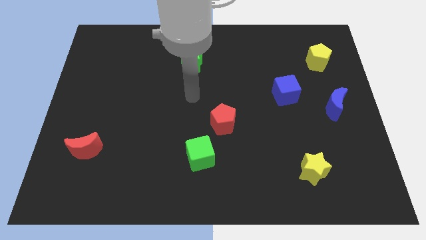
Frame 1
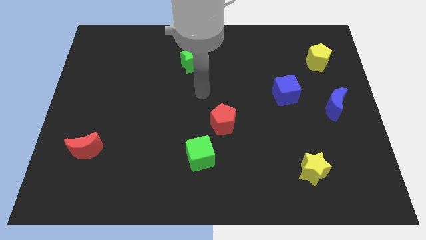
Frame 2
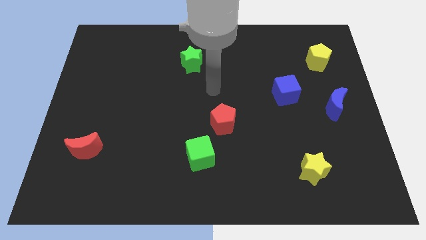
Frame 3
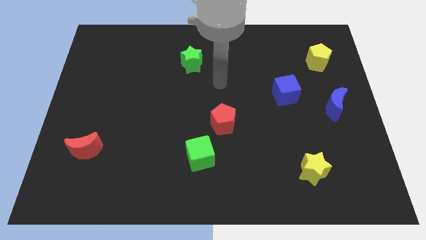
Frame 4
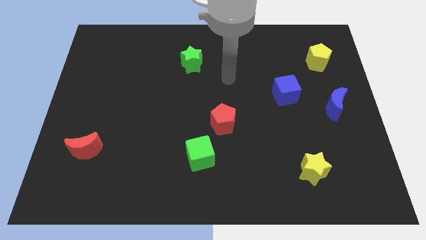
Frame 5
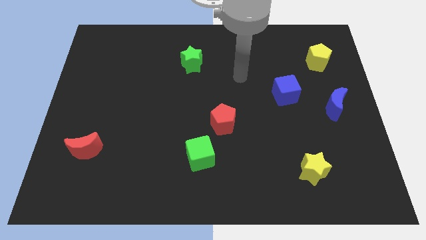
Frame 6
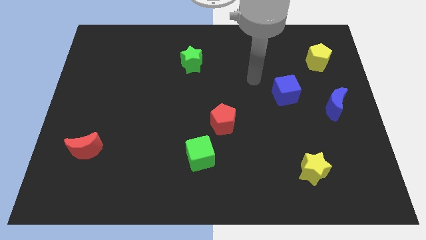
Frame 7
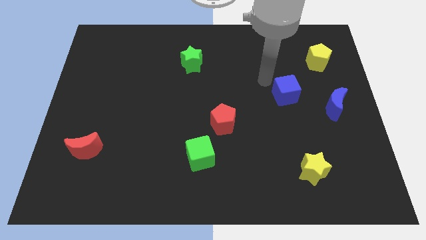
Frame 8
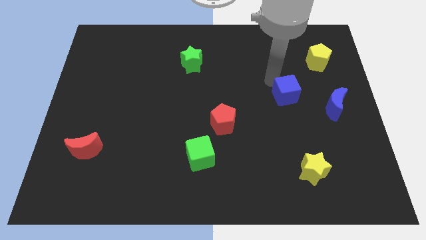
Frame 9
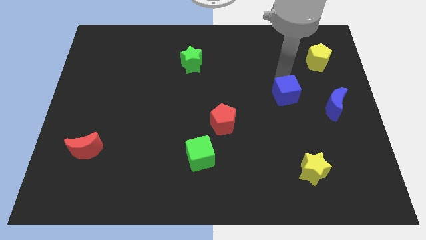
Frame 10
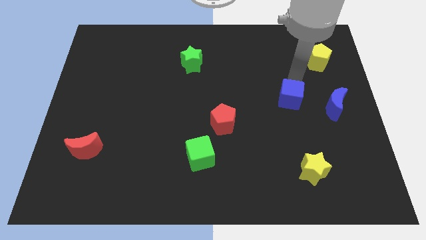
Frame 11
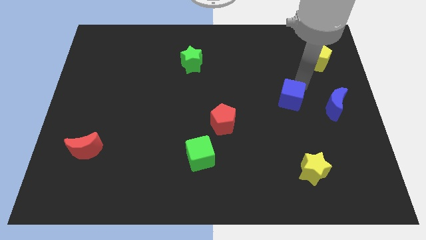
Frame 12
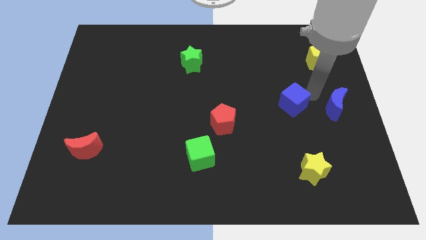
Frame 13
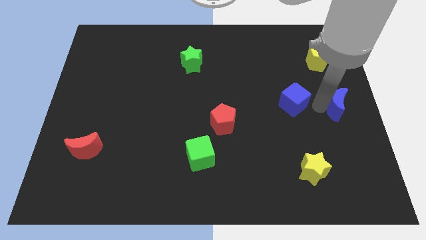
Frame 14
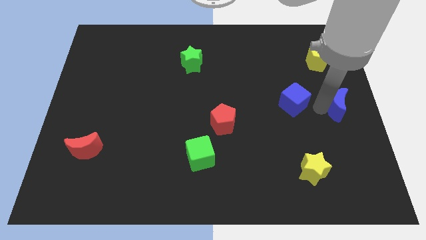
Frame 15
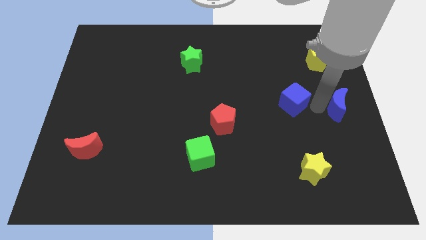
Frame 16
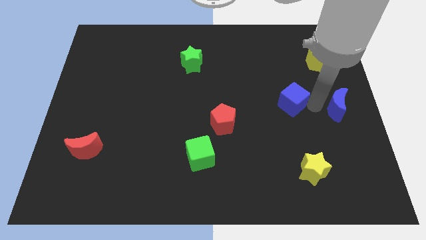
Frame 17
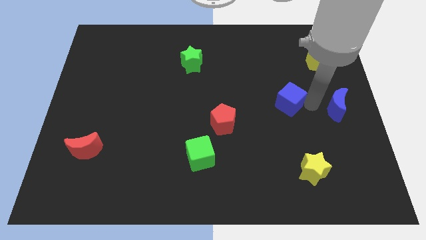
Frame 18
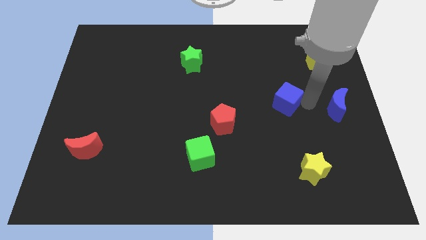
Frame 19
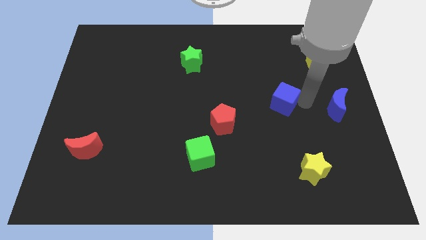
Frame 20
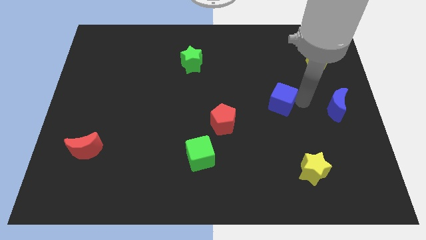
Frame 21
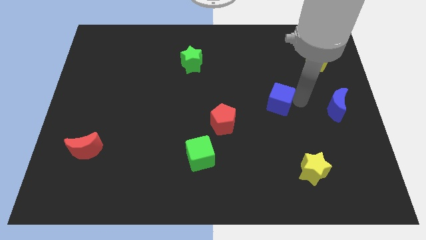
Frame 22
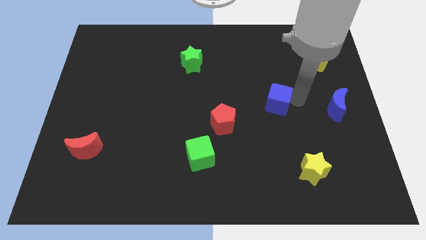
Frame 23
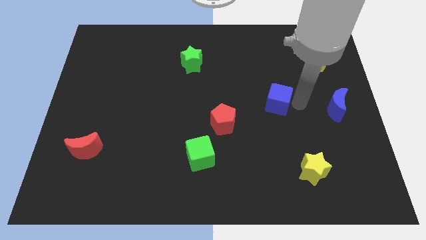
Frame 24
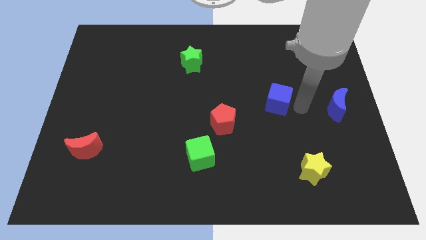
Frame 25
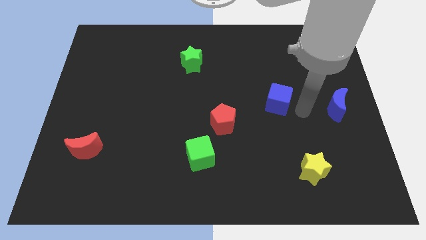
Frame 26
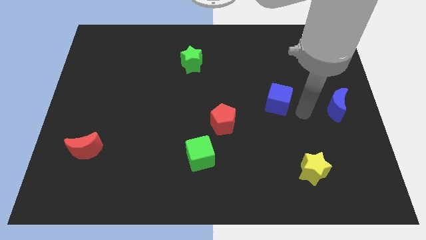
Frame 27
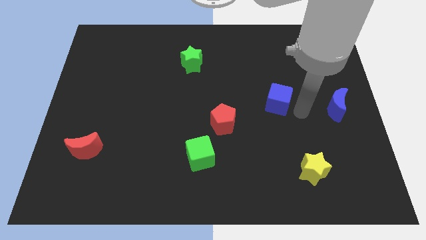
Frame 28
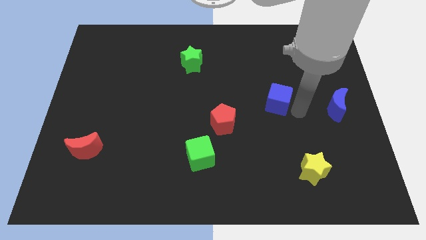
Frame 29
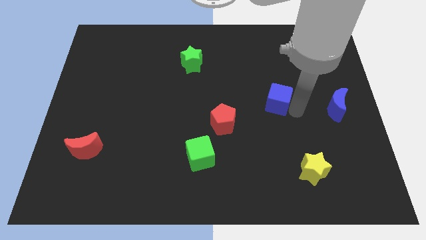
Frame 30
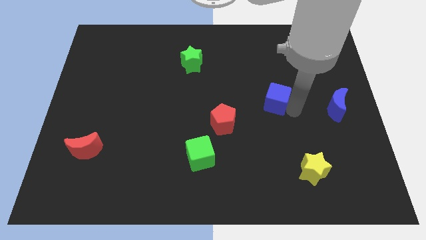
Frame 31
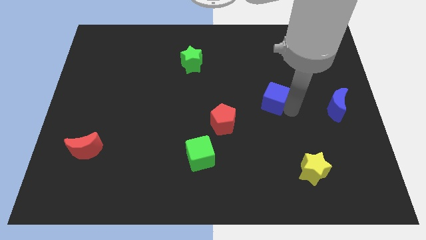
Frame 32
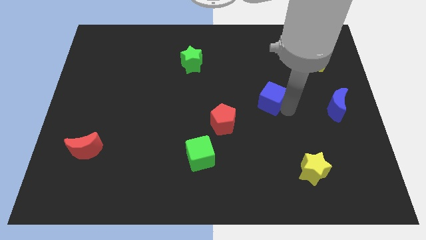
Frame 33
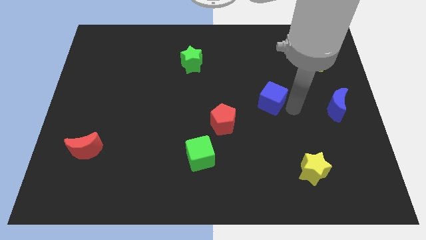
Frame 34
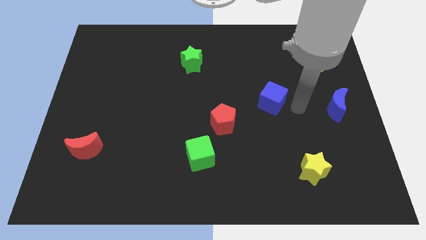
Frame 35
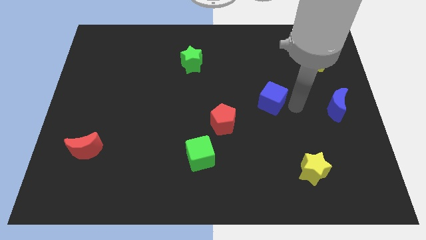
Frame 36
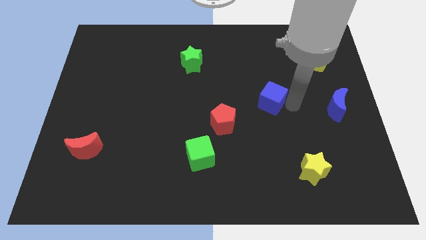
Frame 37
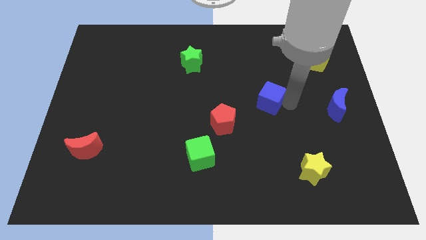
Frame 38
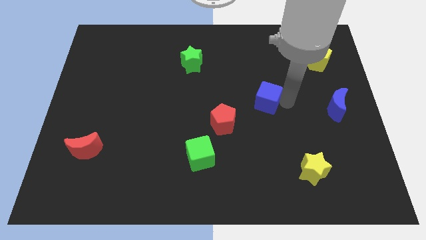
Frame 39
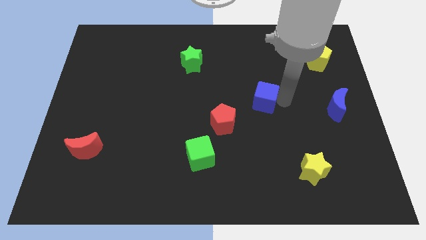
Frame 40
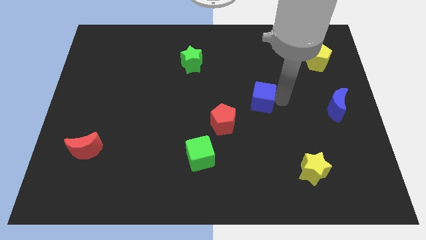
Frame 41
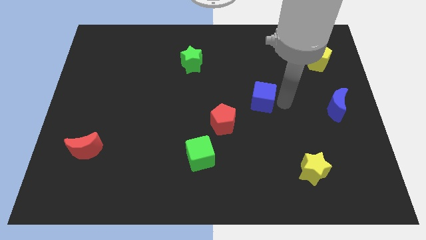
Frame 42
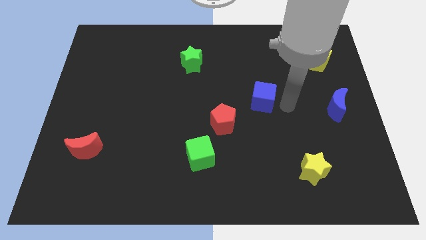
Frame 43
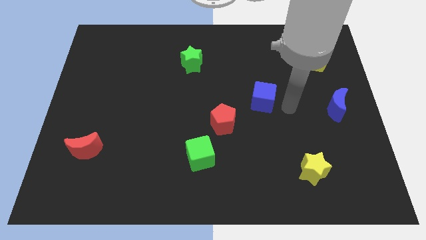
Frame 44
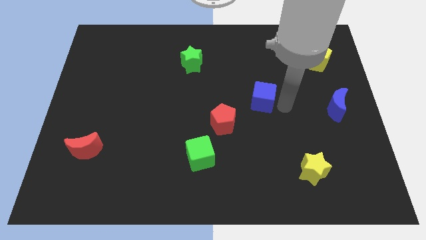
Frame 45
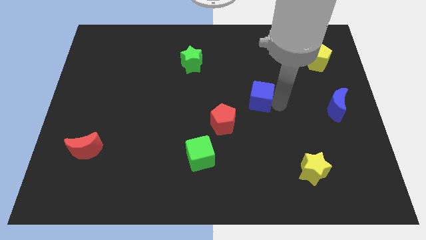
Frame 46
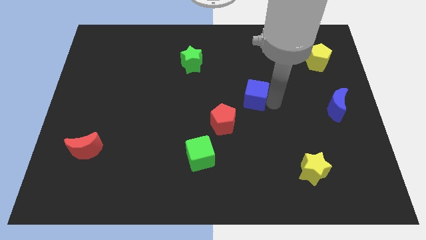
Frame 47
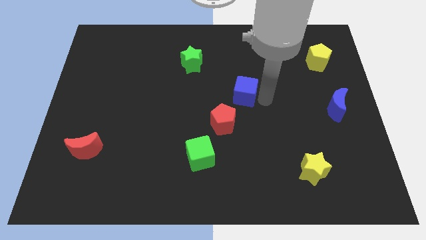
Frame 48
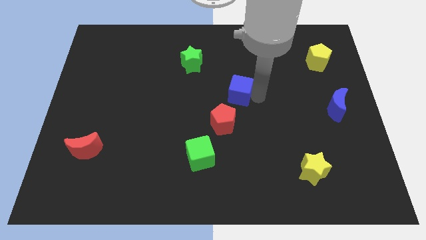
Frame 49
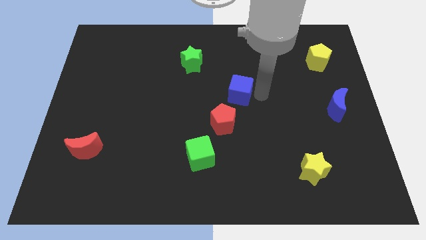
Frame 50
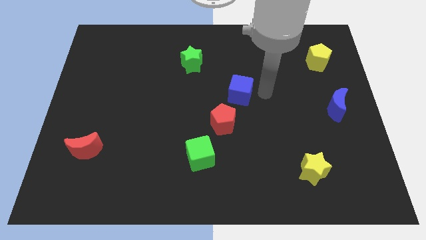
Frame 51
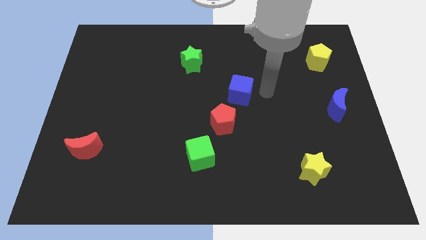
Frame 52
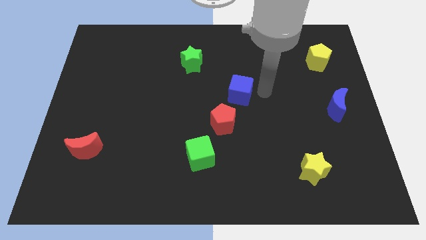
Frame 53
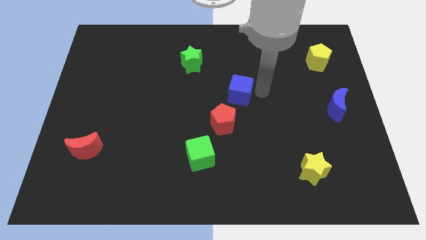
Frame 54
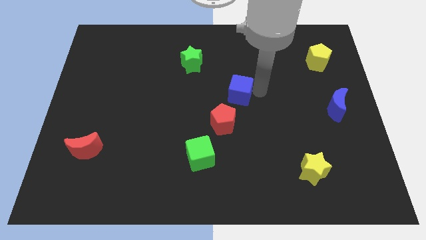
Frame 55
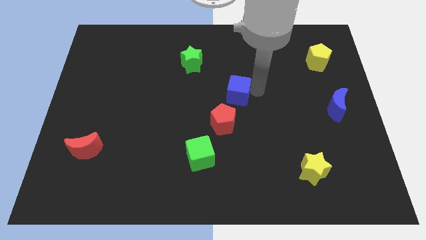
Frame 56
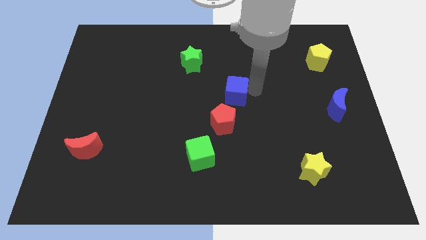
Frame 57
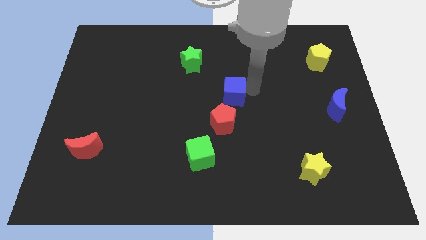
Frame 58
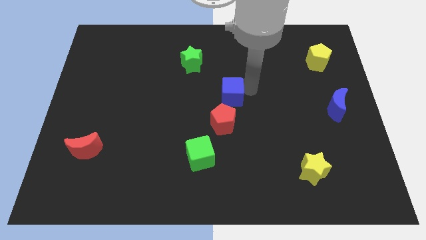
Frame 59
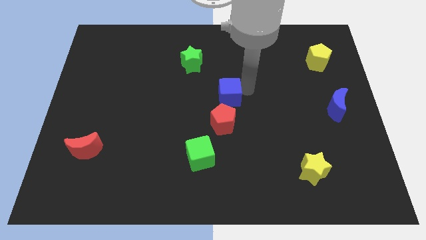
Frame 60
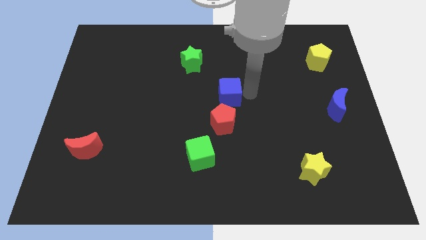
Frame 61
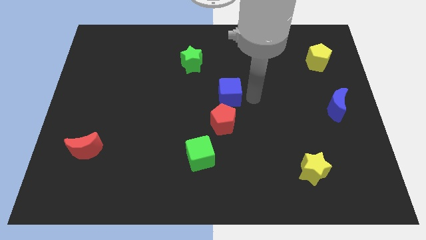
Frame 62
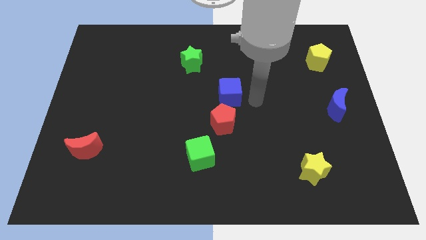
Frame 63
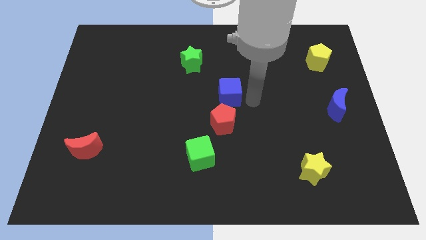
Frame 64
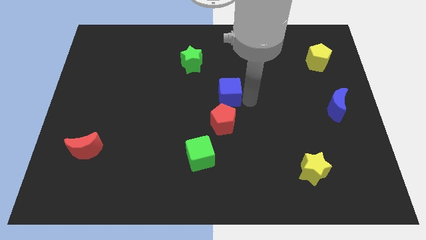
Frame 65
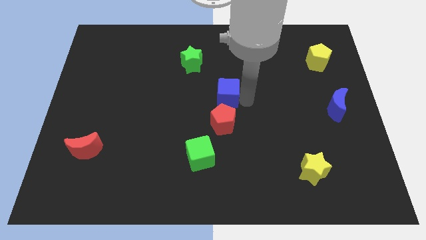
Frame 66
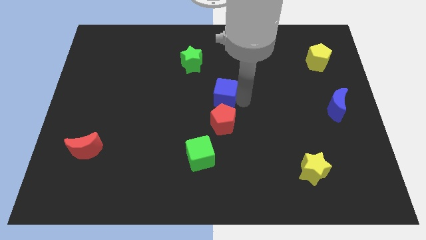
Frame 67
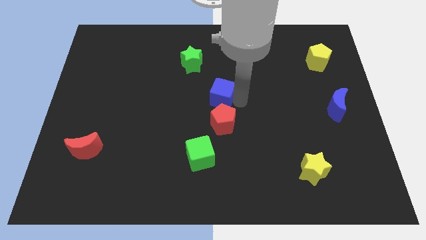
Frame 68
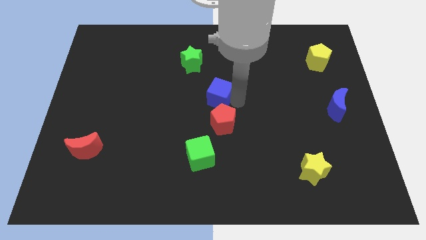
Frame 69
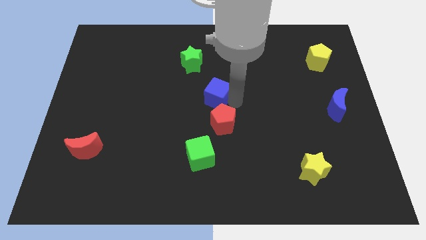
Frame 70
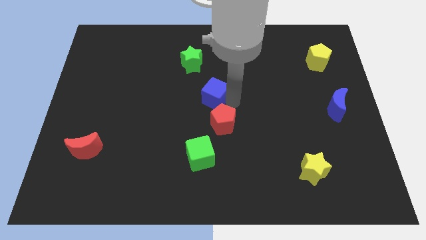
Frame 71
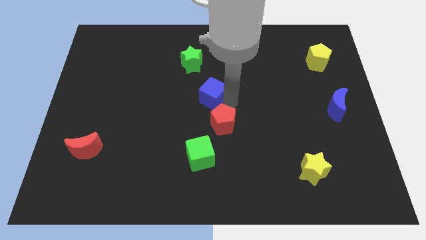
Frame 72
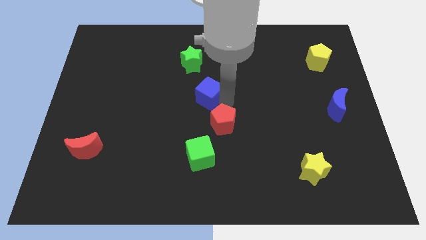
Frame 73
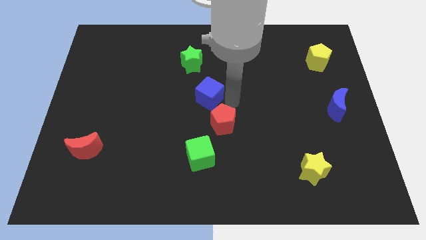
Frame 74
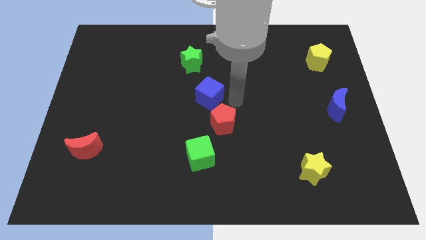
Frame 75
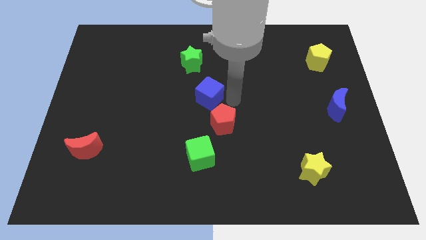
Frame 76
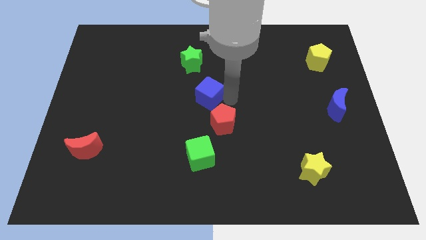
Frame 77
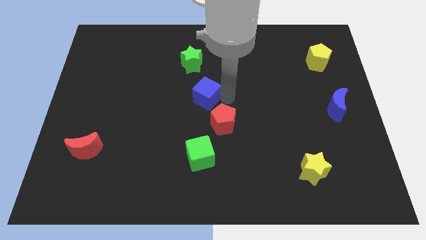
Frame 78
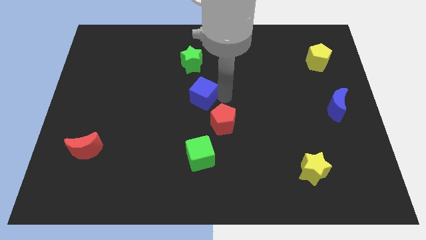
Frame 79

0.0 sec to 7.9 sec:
slide the blue cube to the left
